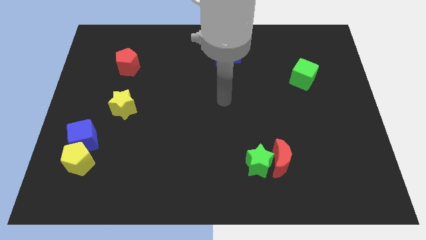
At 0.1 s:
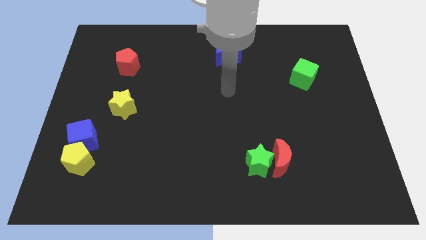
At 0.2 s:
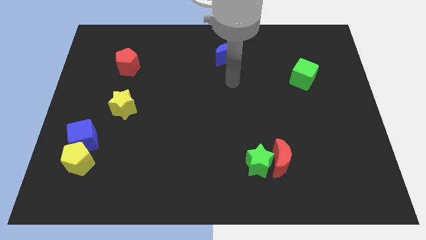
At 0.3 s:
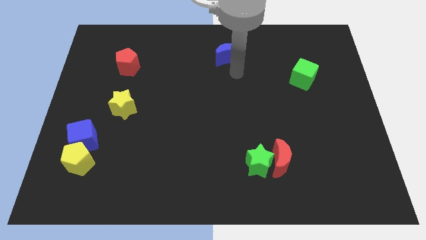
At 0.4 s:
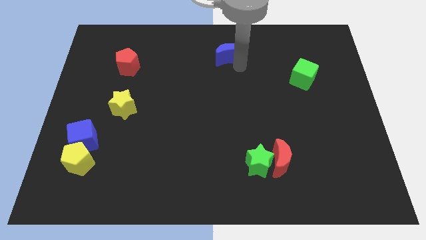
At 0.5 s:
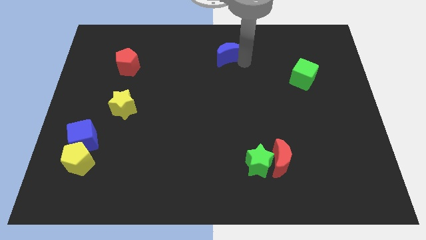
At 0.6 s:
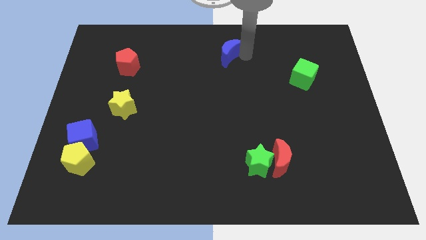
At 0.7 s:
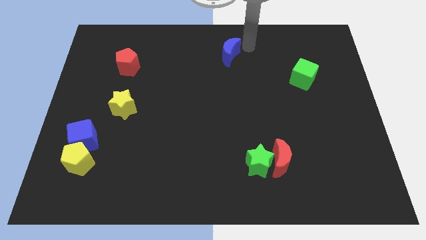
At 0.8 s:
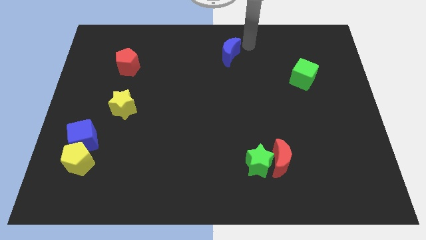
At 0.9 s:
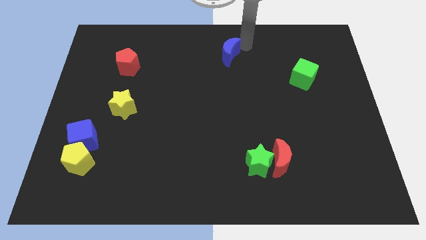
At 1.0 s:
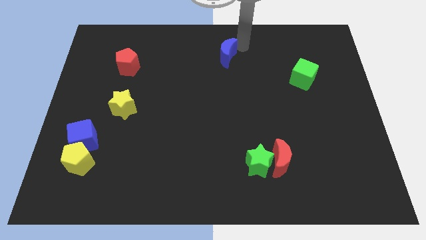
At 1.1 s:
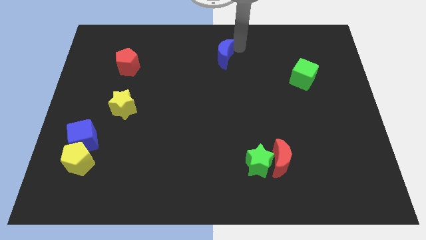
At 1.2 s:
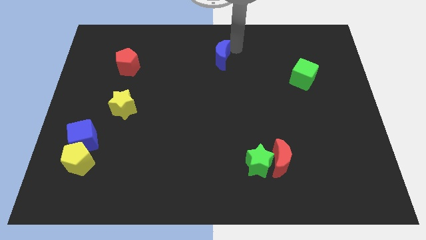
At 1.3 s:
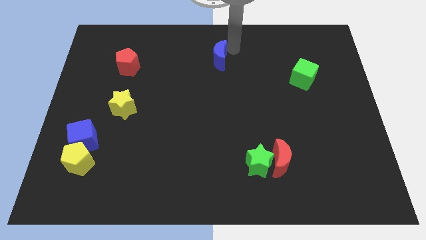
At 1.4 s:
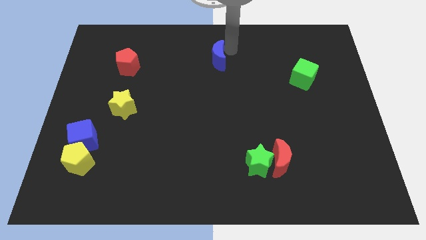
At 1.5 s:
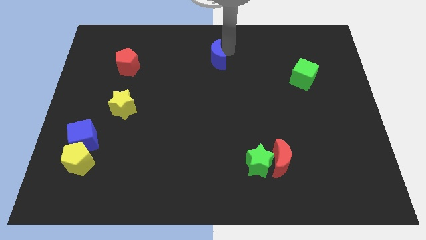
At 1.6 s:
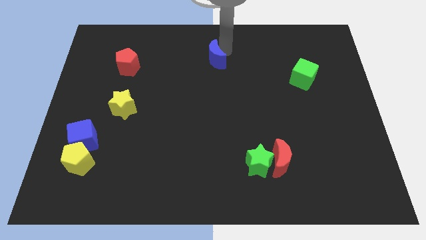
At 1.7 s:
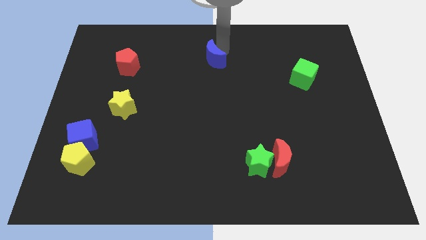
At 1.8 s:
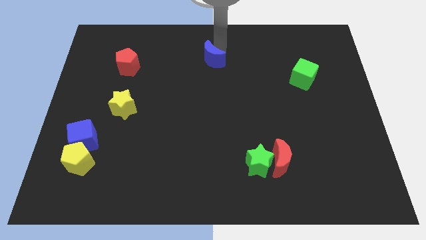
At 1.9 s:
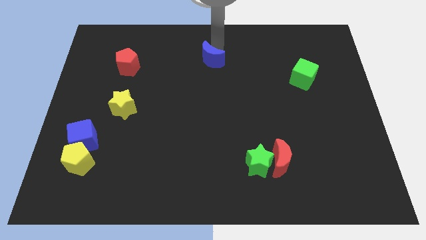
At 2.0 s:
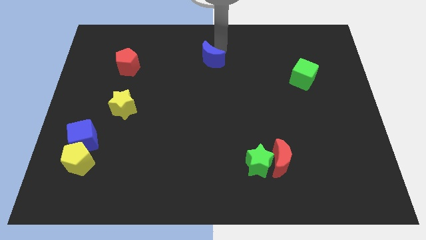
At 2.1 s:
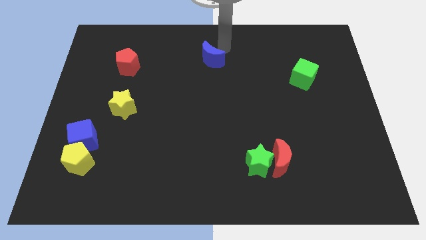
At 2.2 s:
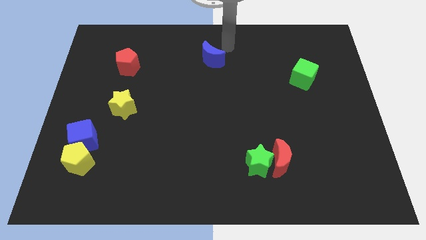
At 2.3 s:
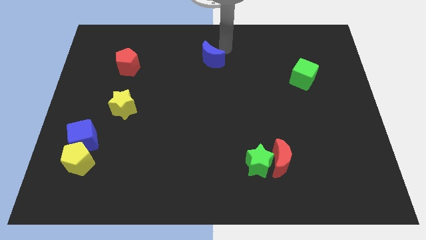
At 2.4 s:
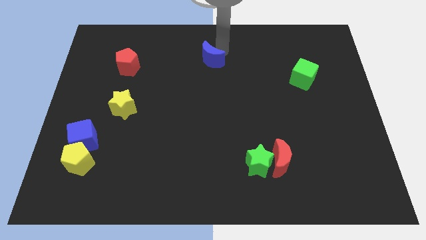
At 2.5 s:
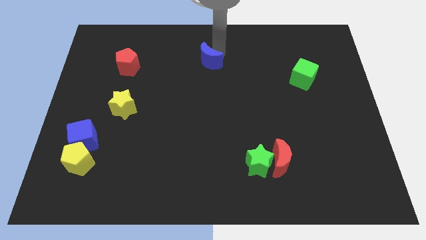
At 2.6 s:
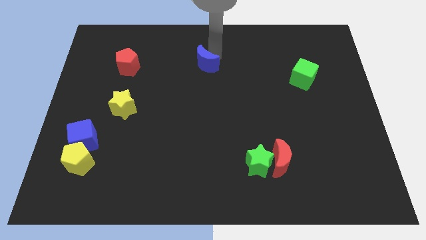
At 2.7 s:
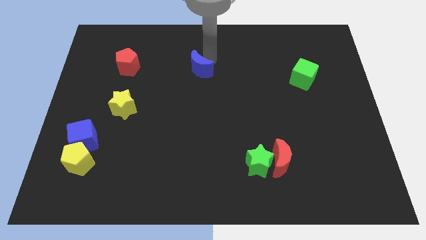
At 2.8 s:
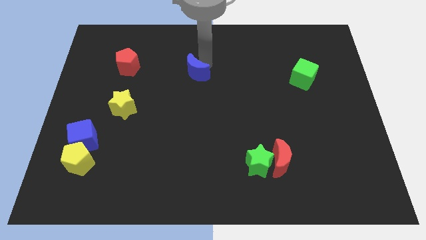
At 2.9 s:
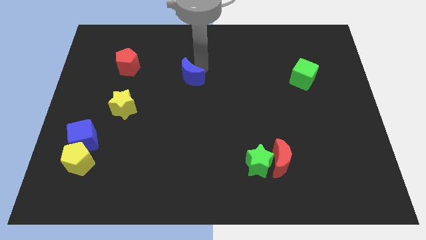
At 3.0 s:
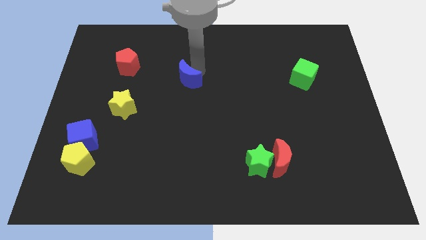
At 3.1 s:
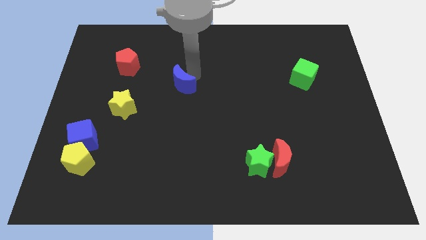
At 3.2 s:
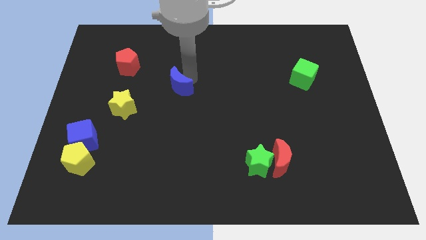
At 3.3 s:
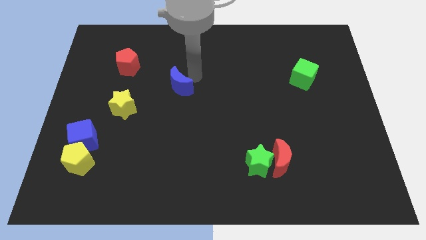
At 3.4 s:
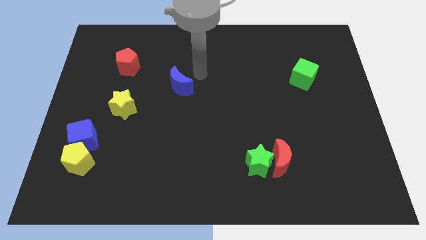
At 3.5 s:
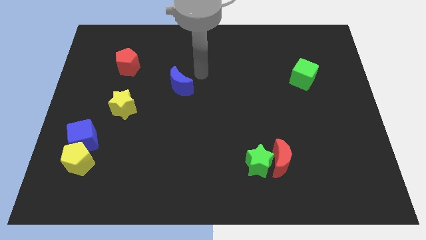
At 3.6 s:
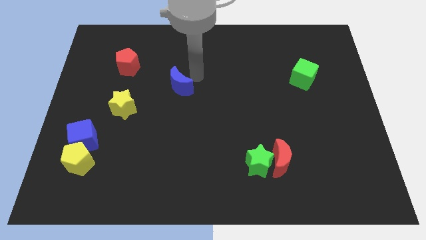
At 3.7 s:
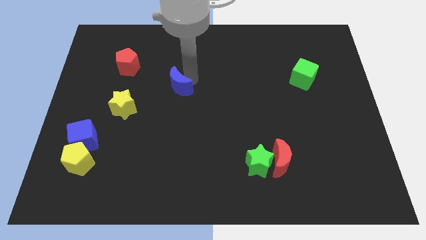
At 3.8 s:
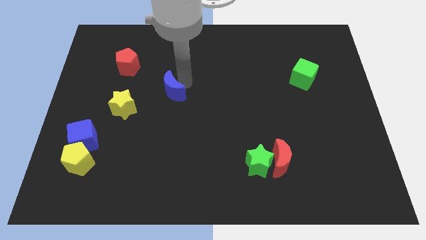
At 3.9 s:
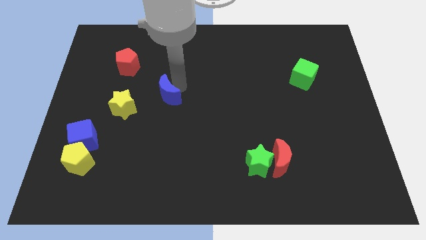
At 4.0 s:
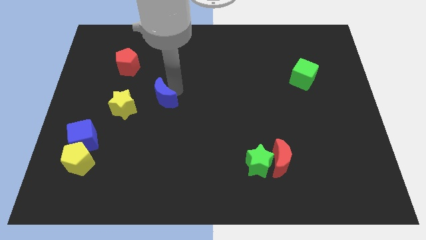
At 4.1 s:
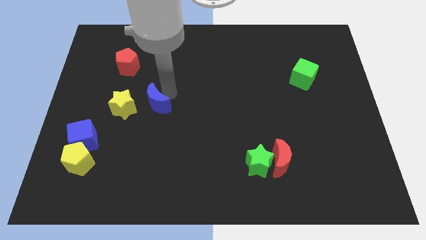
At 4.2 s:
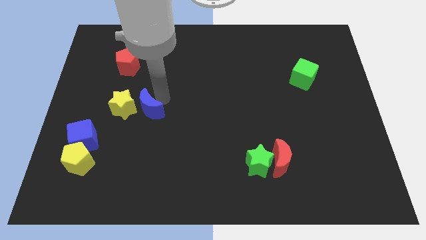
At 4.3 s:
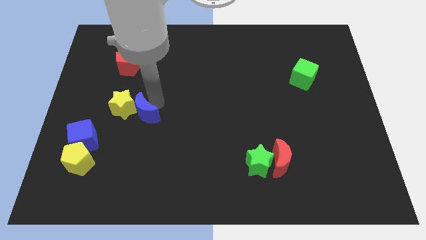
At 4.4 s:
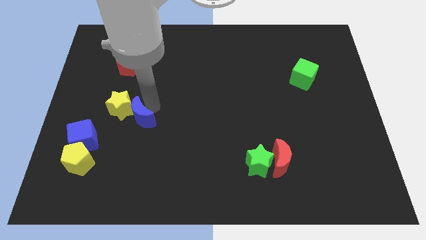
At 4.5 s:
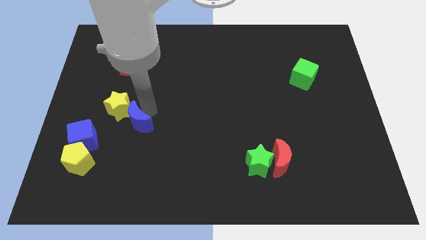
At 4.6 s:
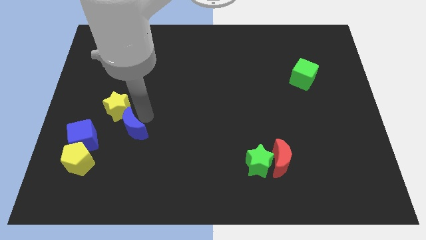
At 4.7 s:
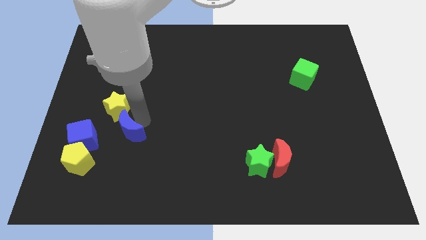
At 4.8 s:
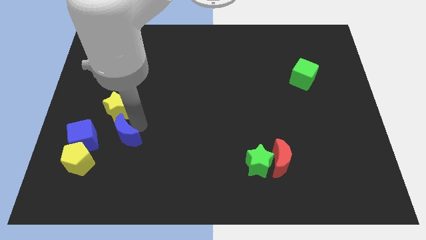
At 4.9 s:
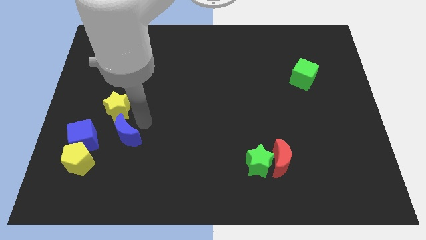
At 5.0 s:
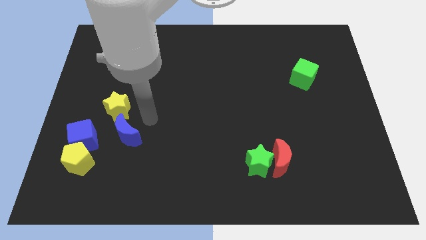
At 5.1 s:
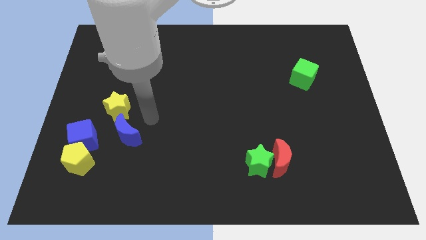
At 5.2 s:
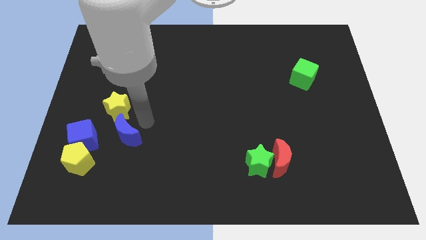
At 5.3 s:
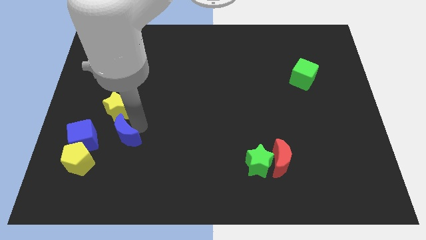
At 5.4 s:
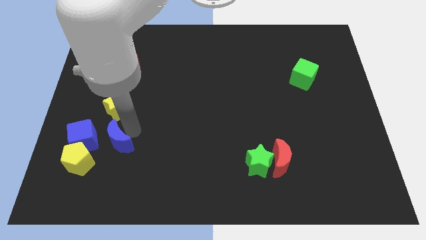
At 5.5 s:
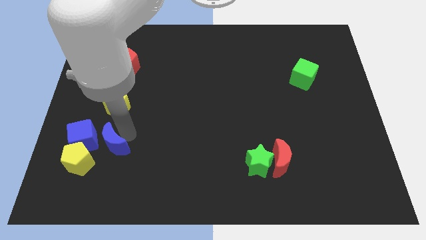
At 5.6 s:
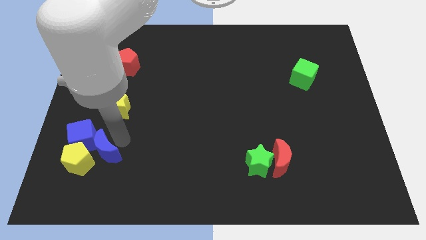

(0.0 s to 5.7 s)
move the blue moon to the yellow pentagon

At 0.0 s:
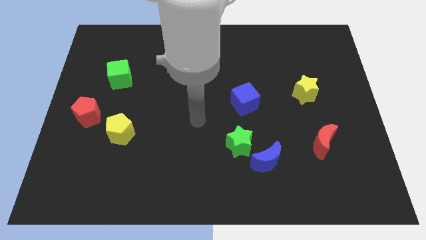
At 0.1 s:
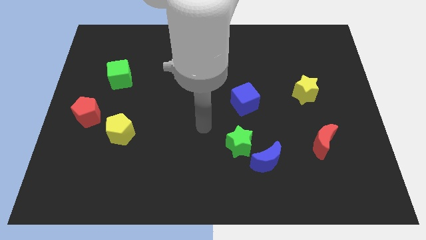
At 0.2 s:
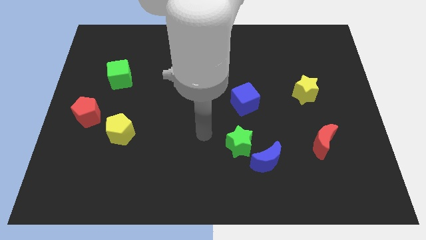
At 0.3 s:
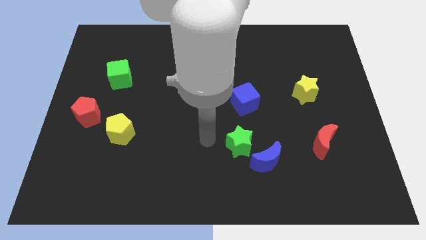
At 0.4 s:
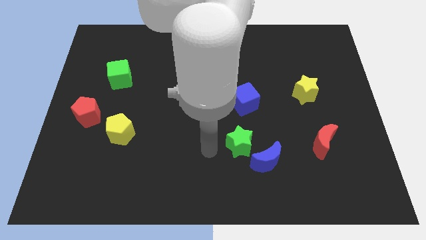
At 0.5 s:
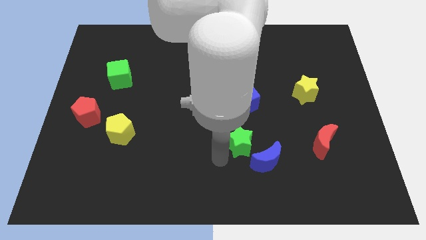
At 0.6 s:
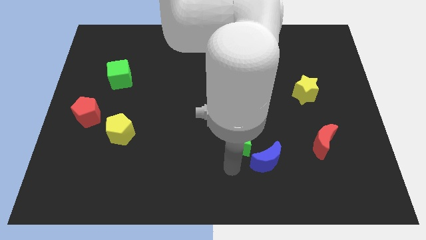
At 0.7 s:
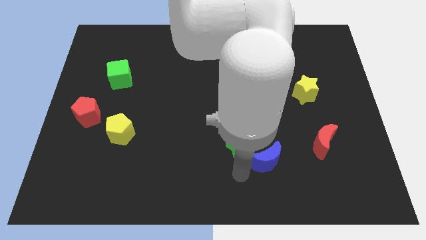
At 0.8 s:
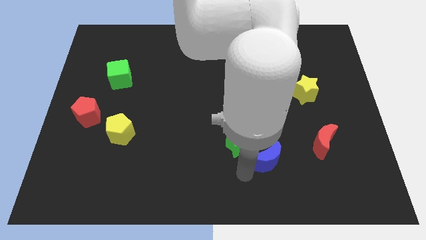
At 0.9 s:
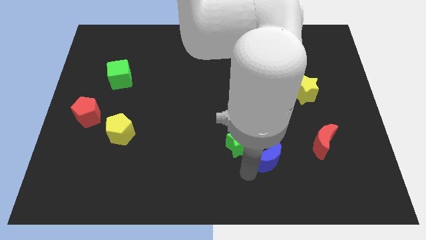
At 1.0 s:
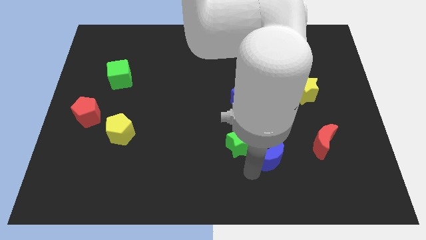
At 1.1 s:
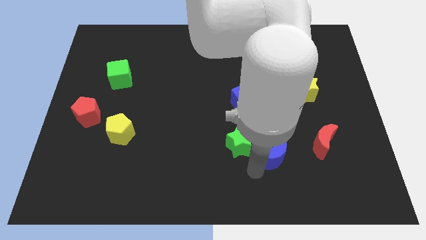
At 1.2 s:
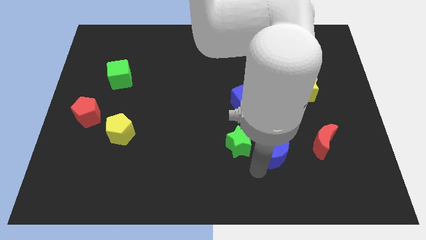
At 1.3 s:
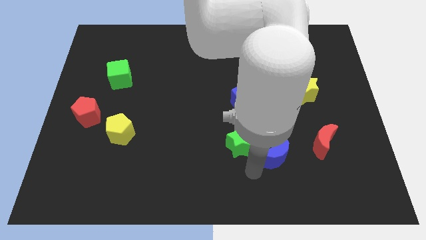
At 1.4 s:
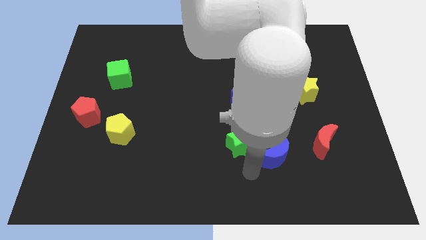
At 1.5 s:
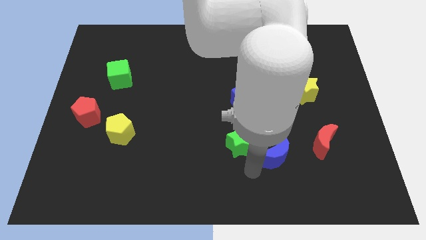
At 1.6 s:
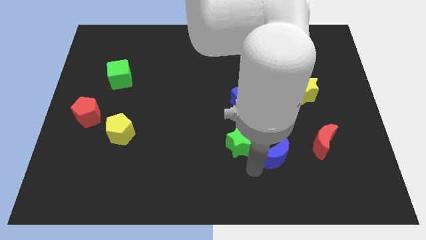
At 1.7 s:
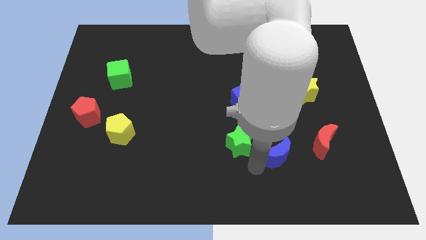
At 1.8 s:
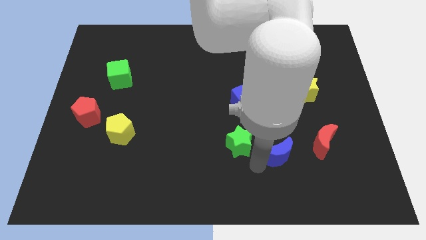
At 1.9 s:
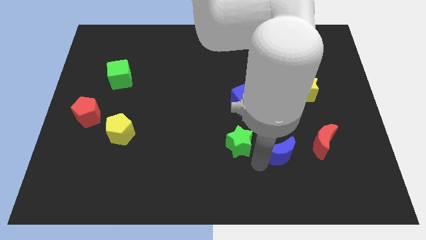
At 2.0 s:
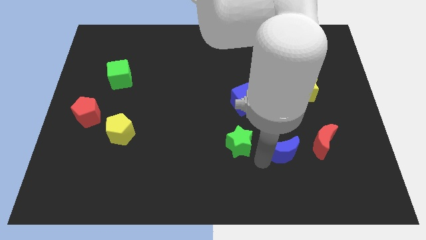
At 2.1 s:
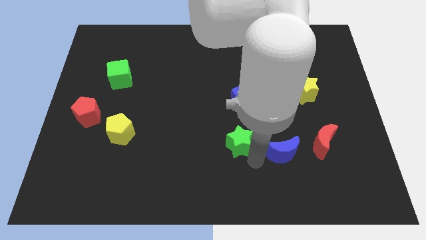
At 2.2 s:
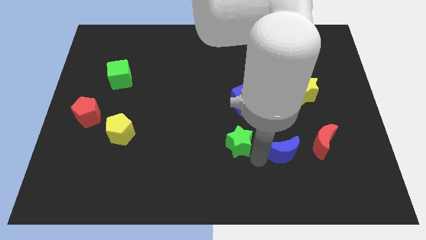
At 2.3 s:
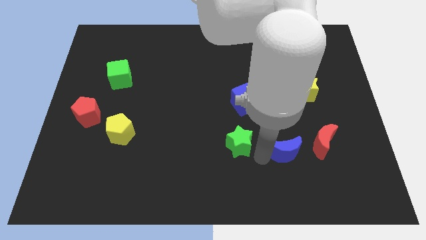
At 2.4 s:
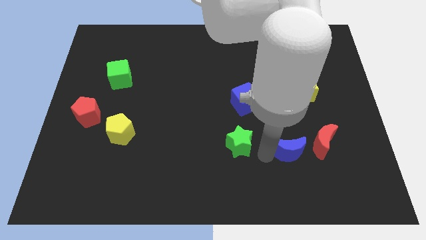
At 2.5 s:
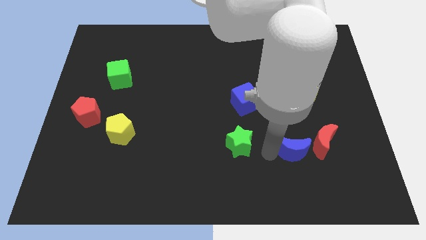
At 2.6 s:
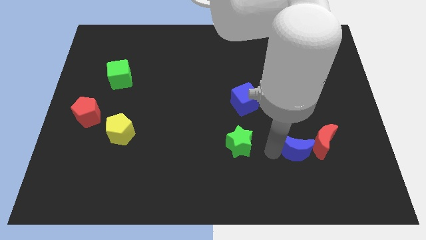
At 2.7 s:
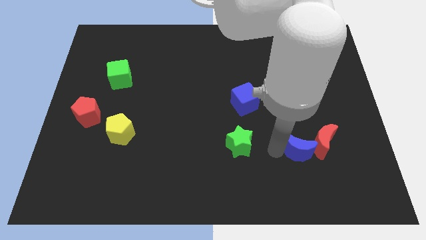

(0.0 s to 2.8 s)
move the blue moon next to the red moon
